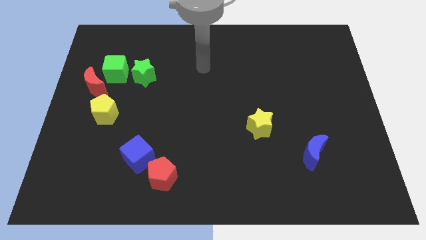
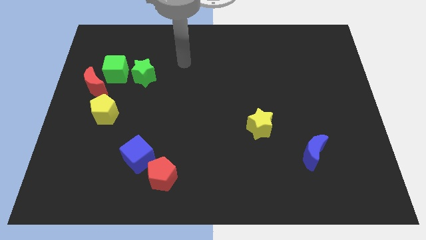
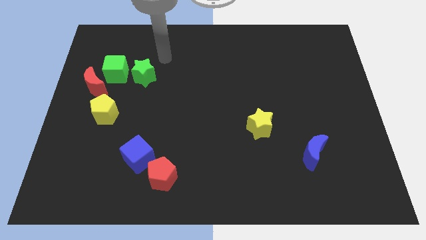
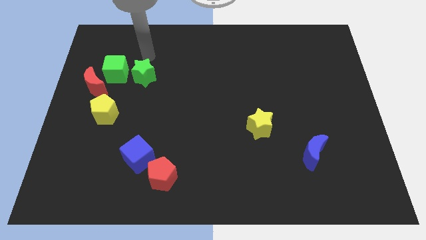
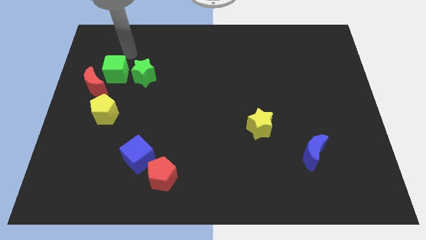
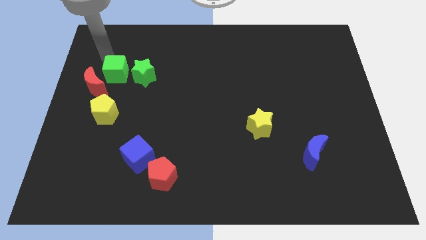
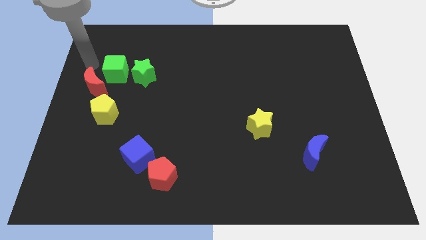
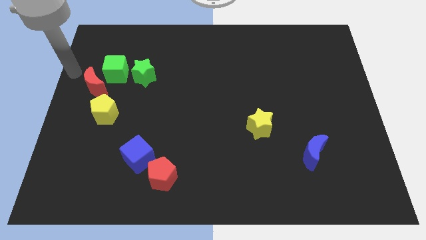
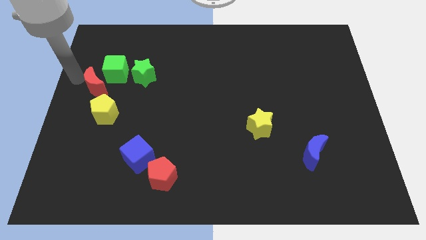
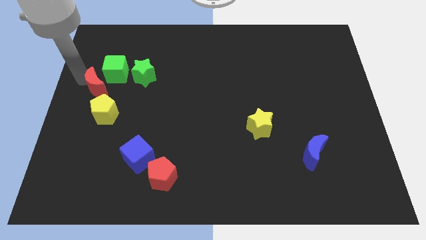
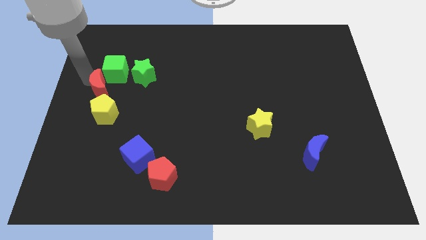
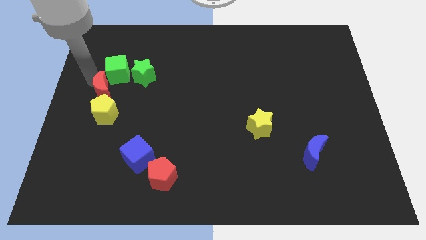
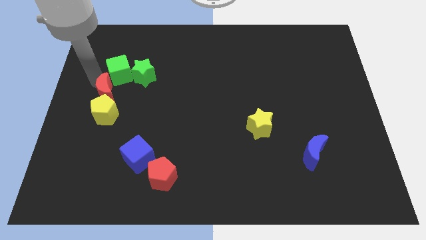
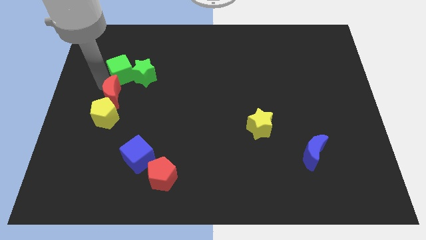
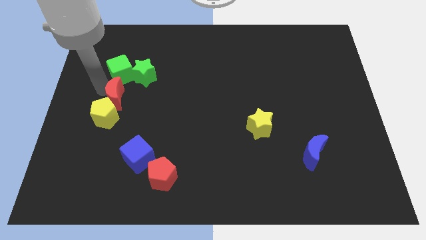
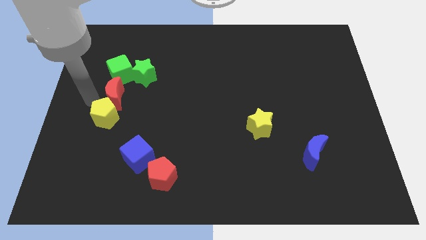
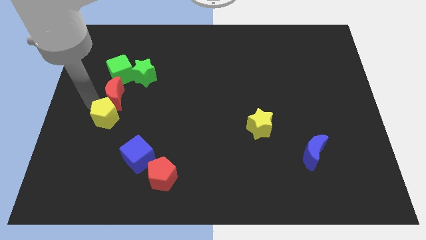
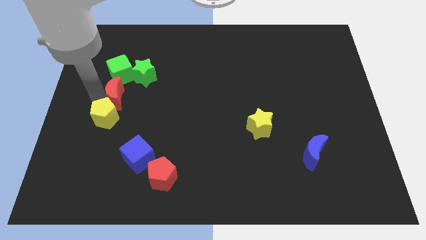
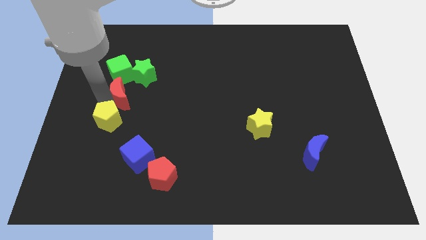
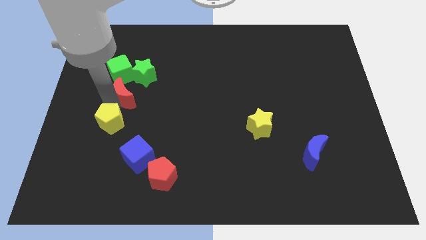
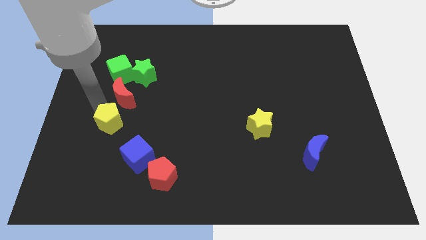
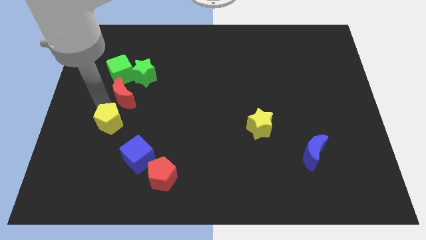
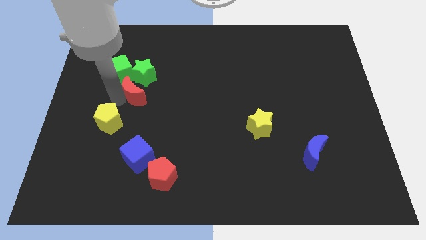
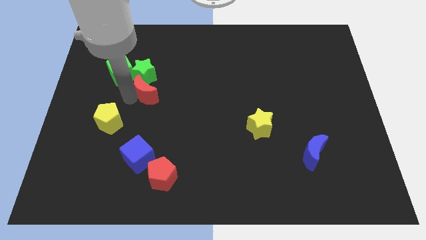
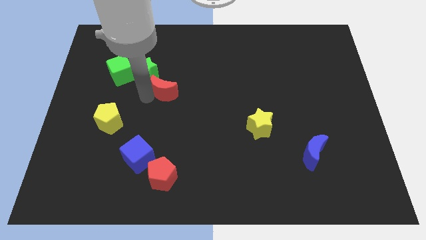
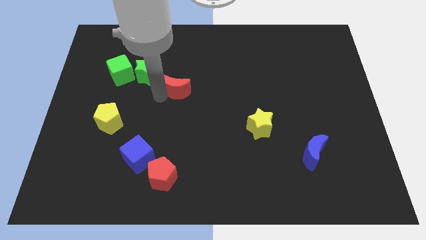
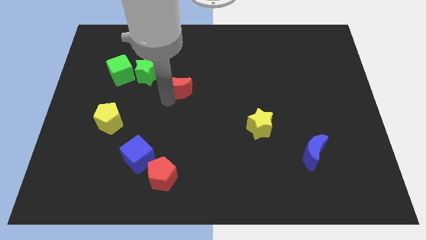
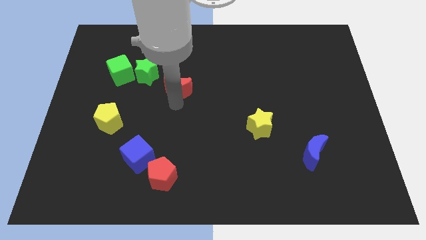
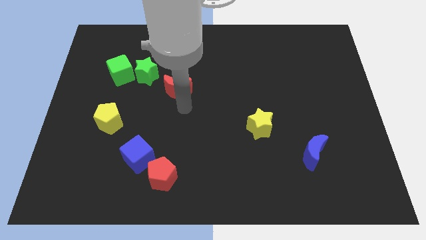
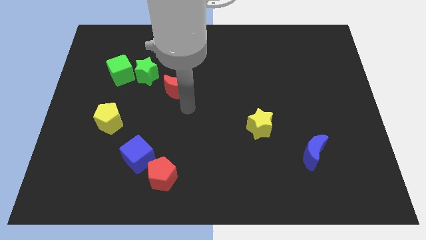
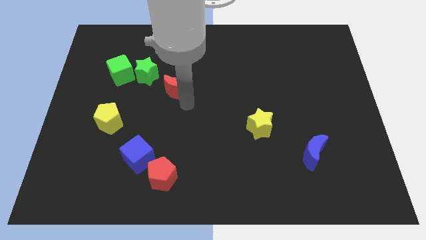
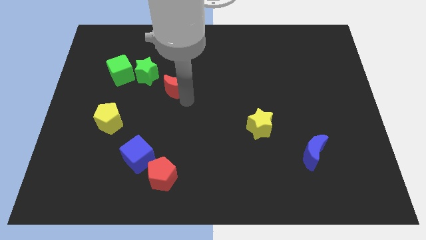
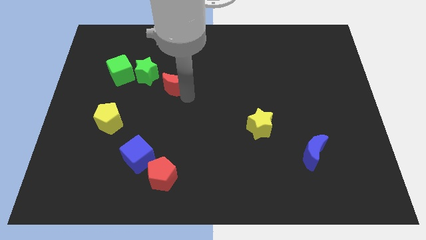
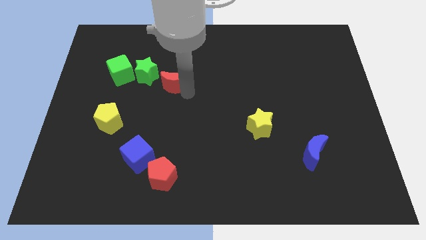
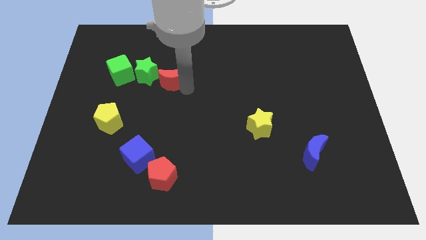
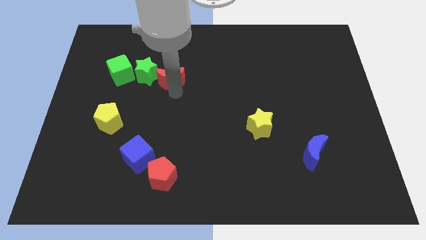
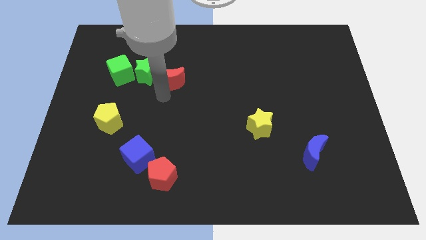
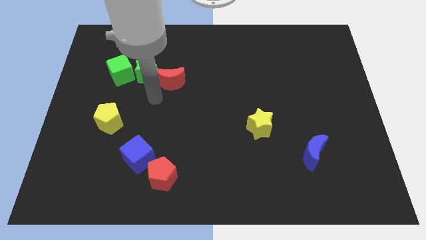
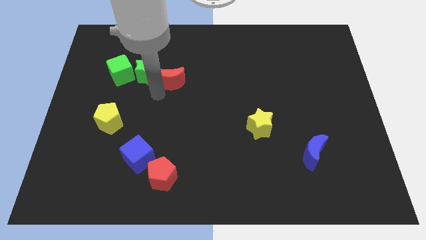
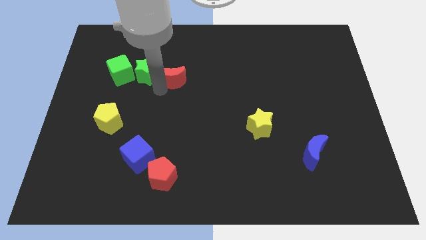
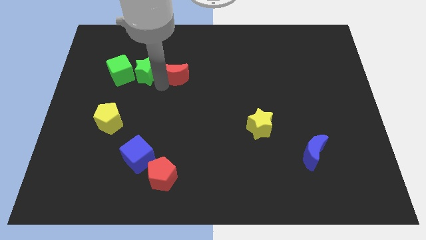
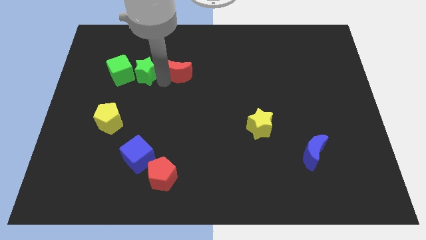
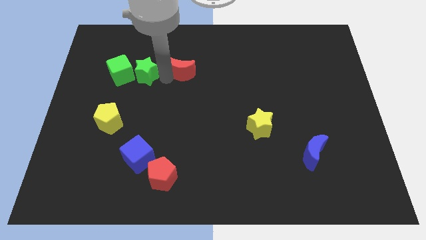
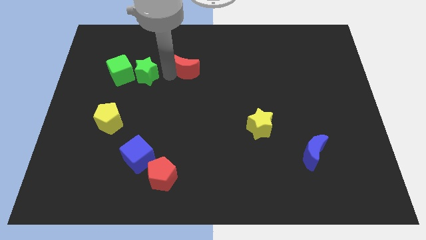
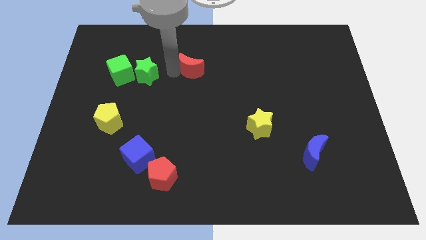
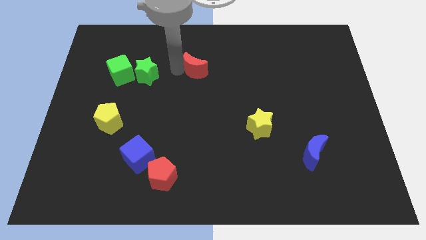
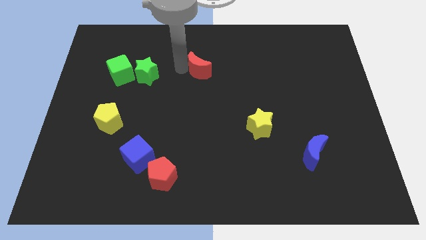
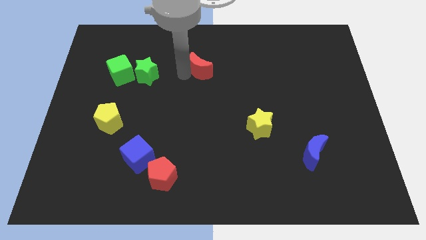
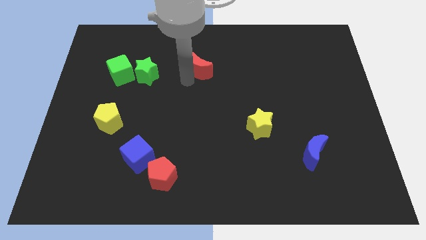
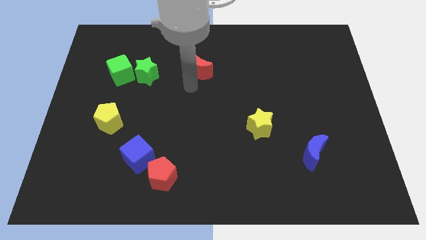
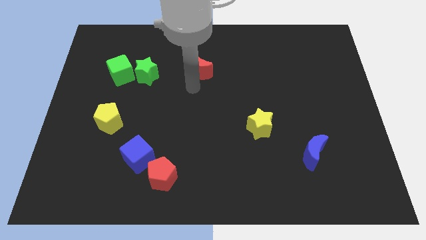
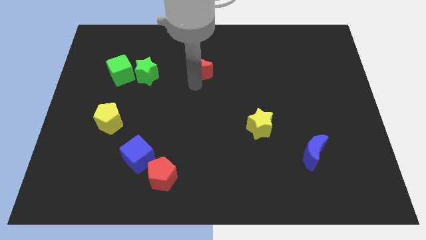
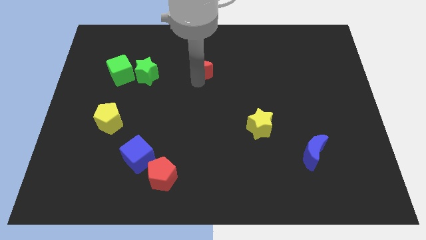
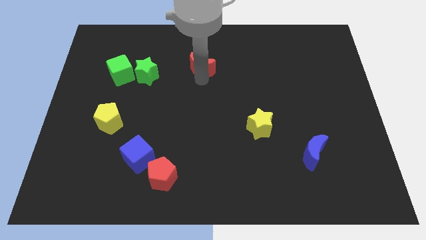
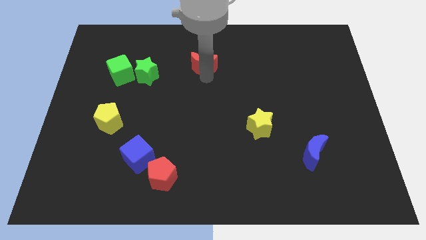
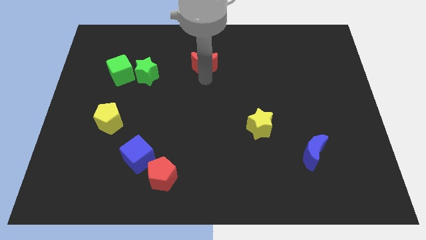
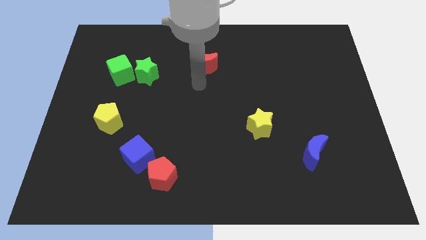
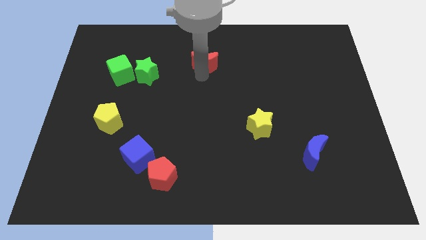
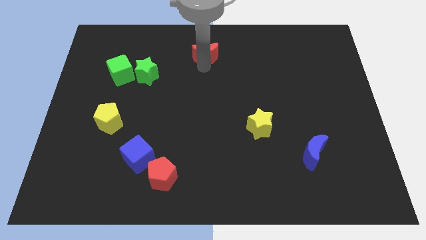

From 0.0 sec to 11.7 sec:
move the red moon to the towards your base

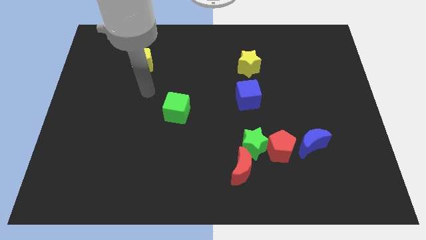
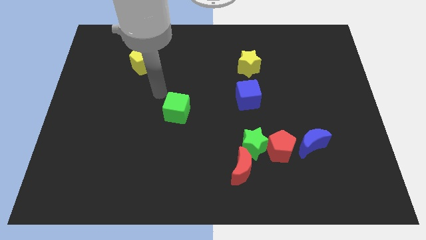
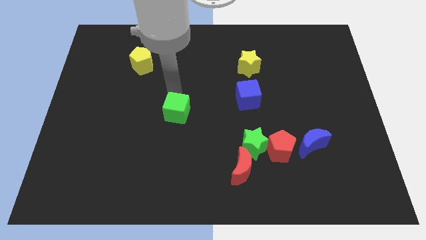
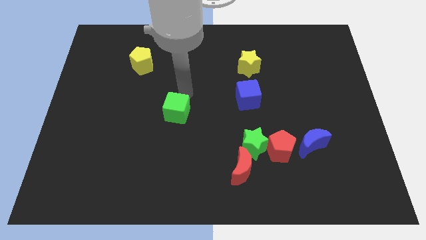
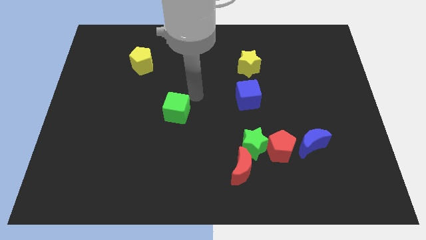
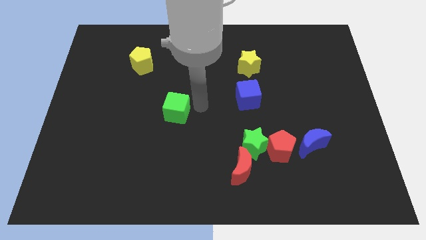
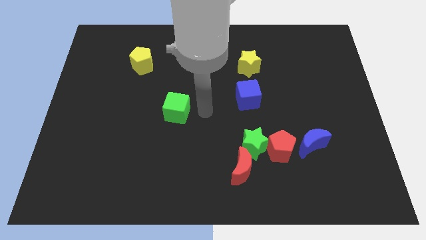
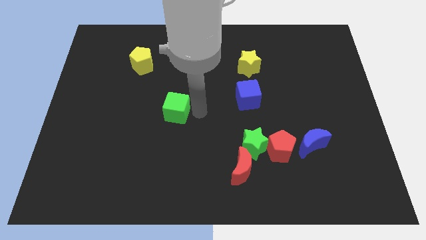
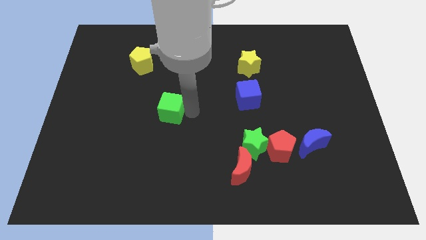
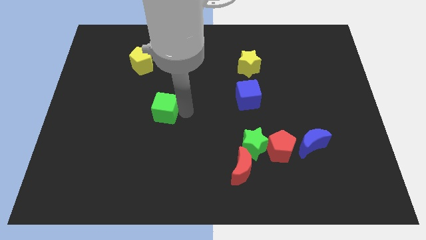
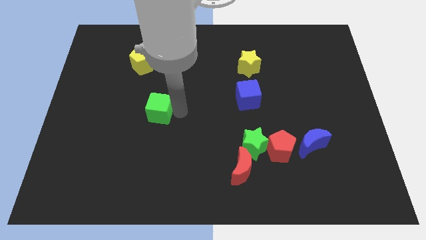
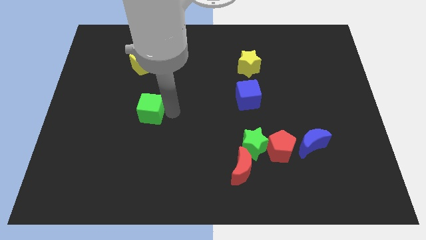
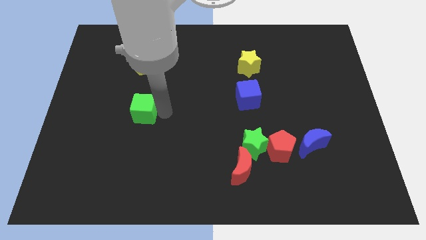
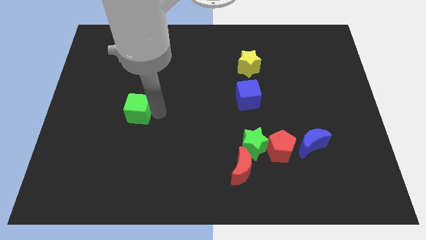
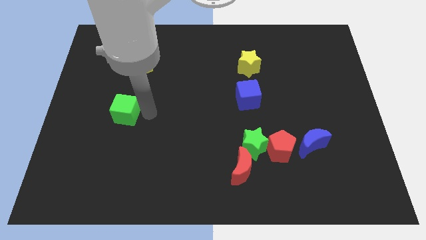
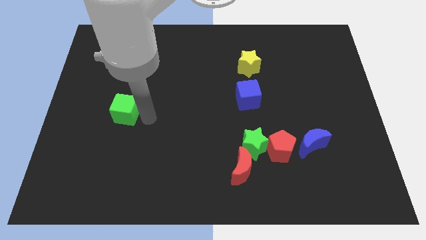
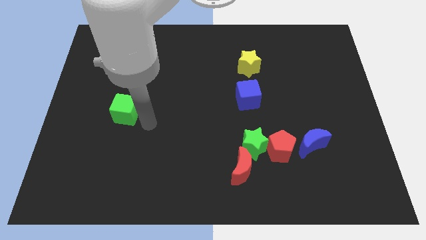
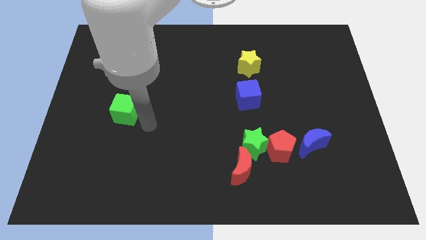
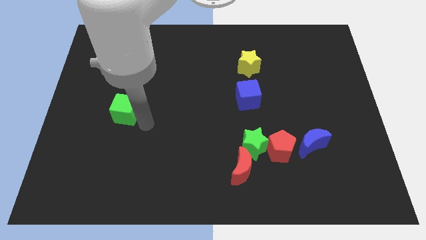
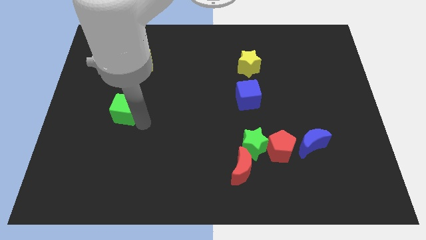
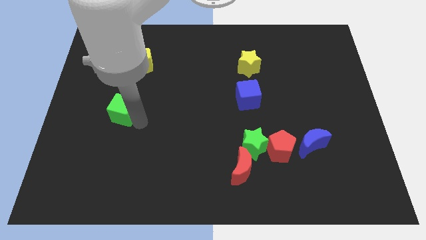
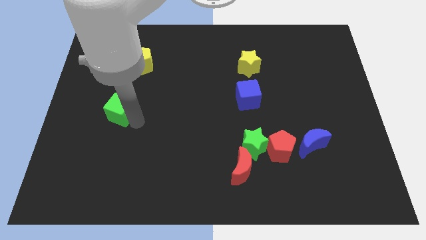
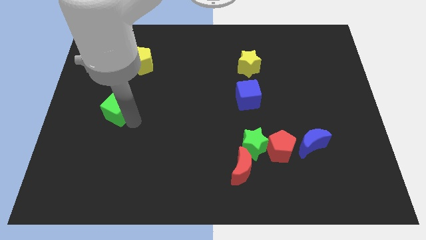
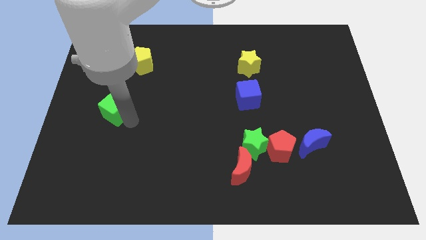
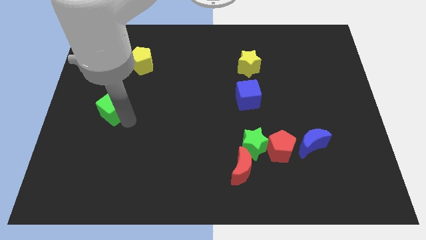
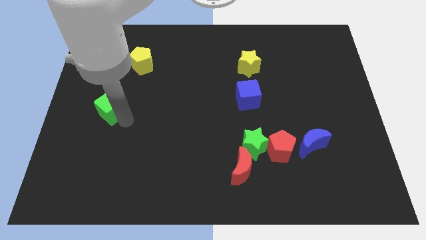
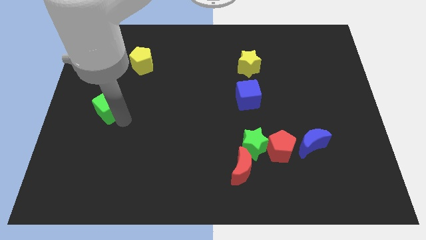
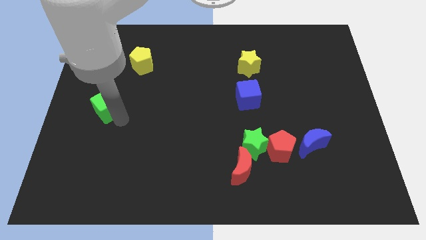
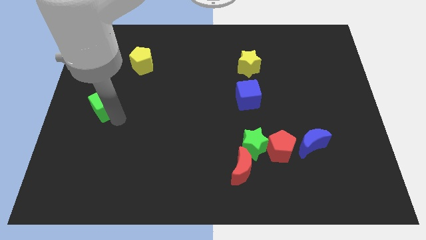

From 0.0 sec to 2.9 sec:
push the green cube to the center left
